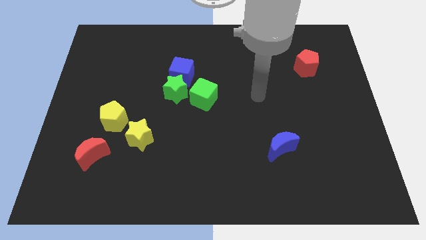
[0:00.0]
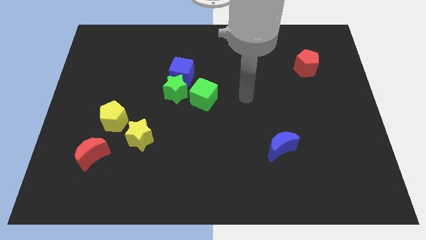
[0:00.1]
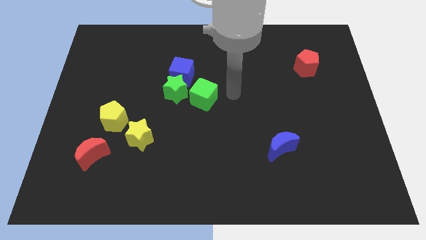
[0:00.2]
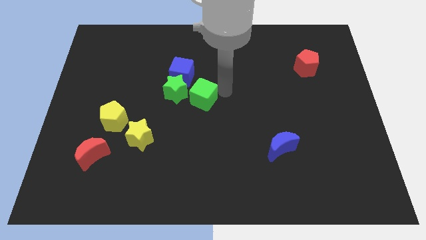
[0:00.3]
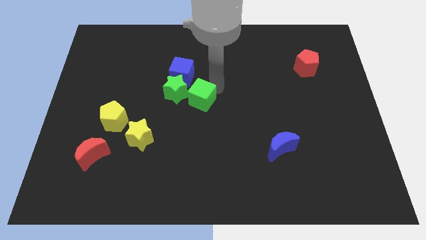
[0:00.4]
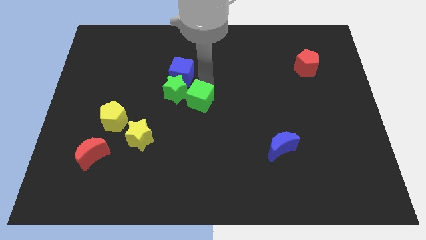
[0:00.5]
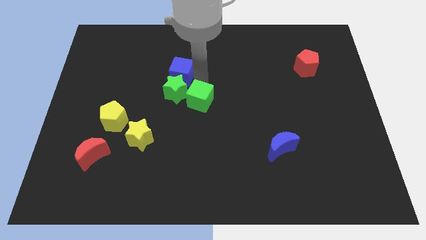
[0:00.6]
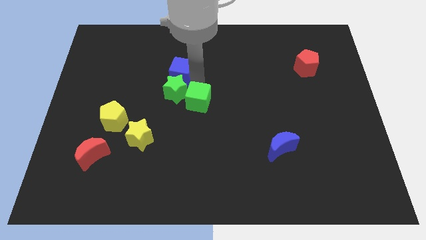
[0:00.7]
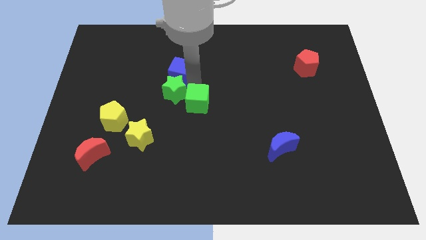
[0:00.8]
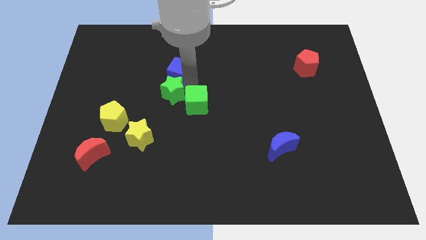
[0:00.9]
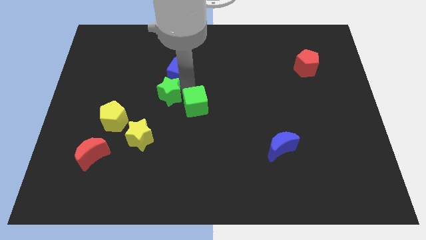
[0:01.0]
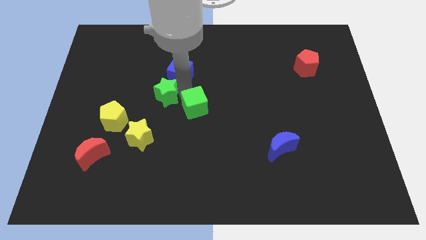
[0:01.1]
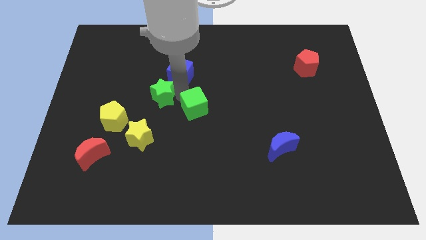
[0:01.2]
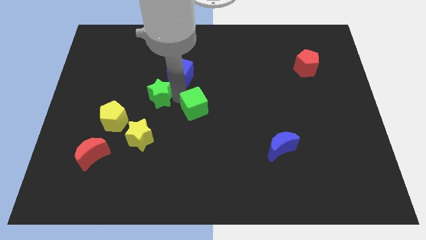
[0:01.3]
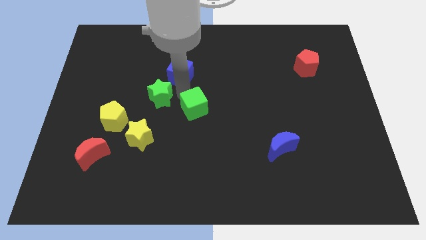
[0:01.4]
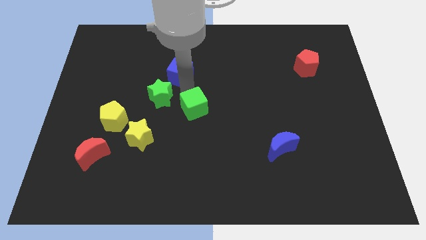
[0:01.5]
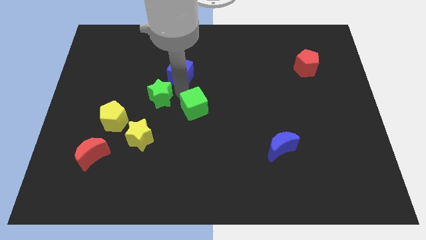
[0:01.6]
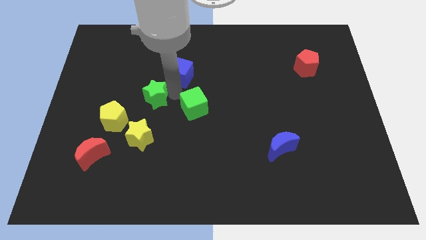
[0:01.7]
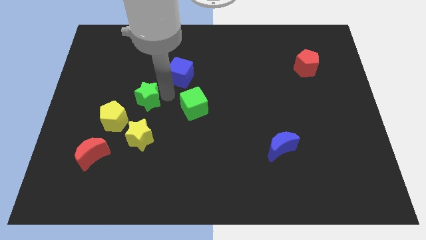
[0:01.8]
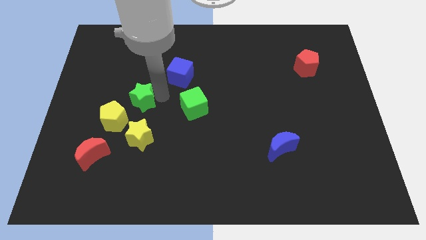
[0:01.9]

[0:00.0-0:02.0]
move the green star away from the blue cube and green cube

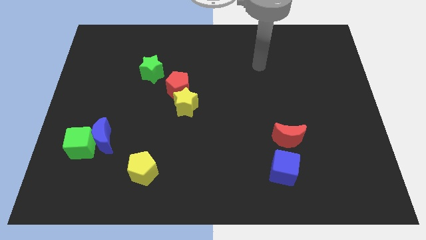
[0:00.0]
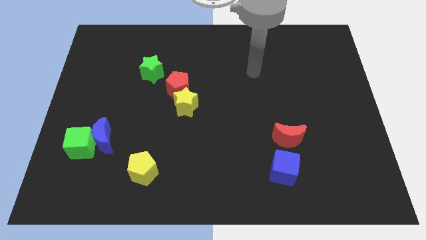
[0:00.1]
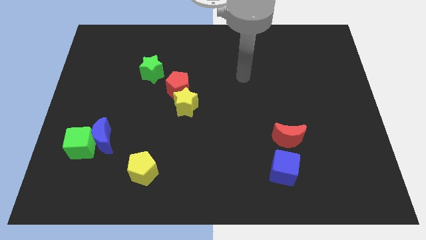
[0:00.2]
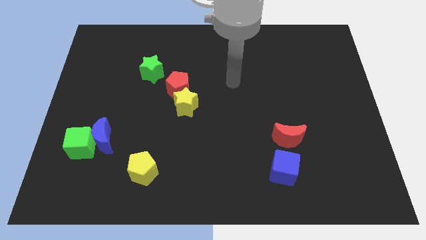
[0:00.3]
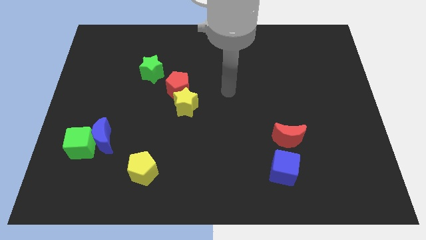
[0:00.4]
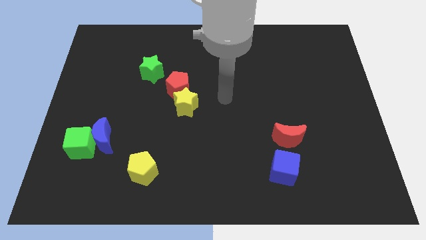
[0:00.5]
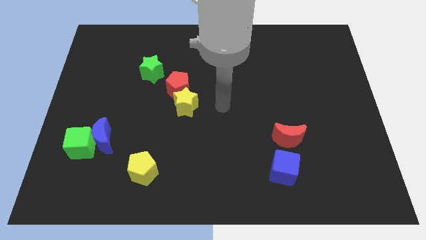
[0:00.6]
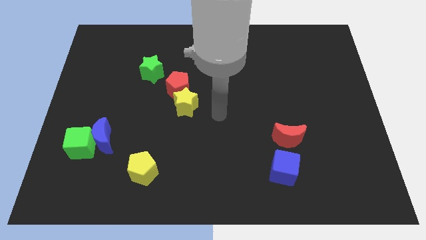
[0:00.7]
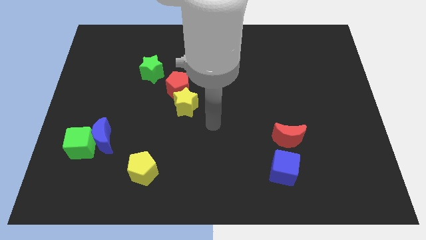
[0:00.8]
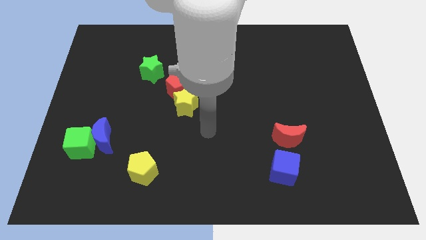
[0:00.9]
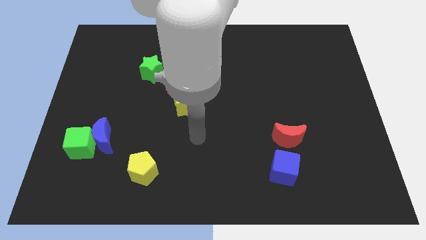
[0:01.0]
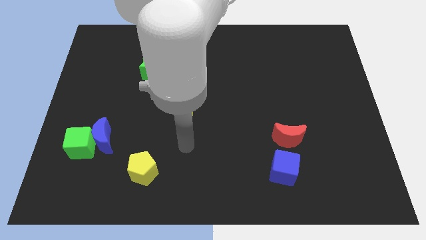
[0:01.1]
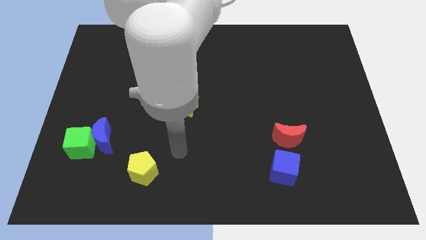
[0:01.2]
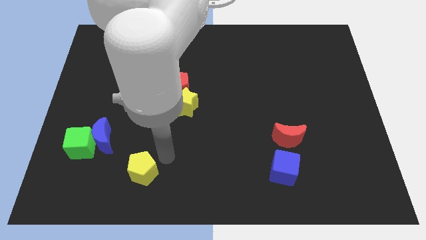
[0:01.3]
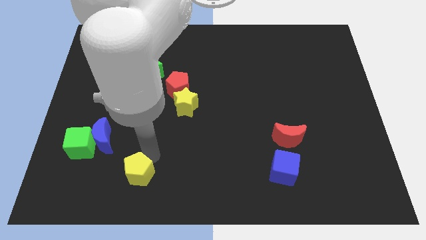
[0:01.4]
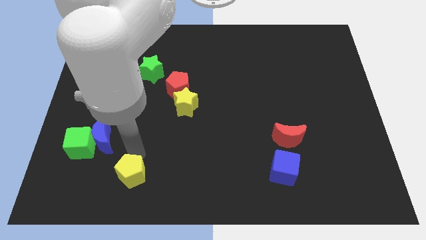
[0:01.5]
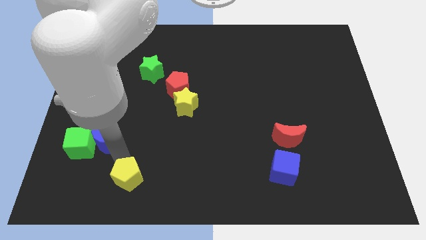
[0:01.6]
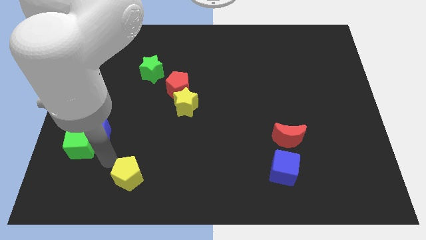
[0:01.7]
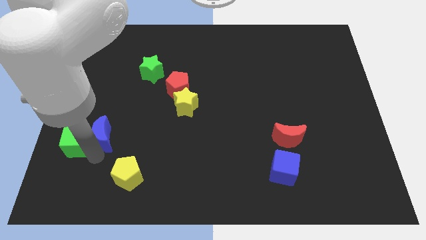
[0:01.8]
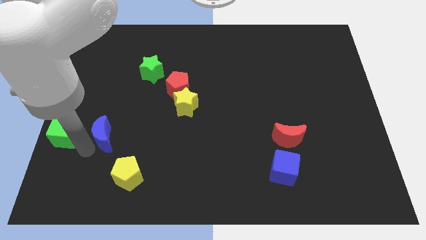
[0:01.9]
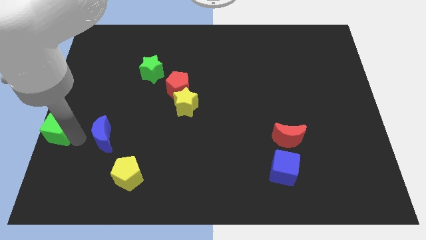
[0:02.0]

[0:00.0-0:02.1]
pull the blue moon apart from the green cube

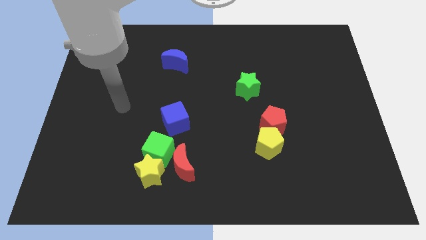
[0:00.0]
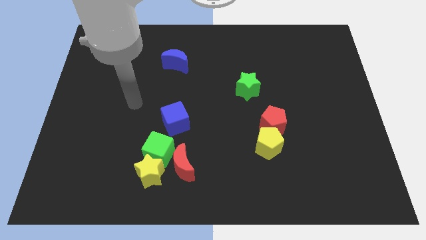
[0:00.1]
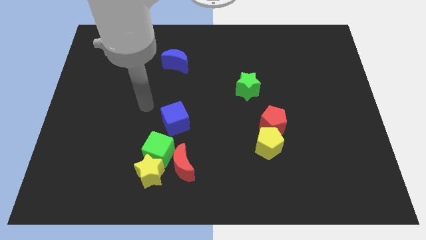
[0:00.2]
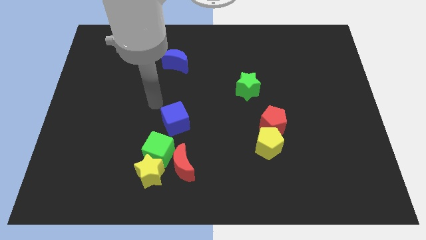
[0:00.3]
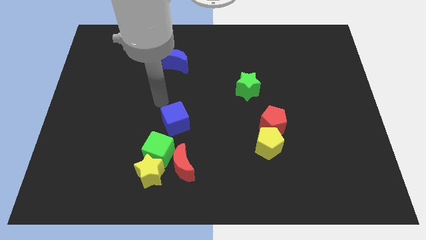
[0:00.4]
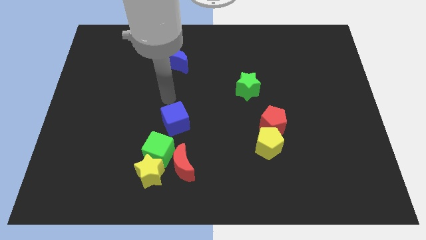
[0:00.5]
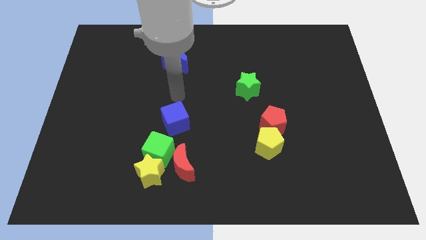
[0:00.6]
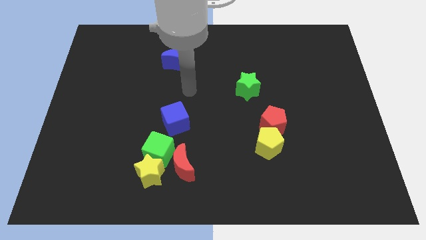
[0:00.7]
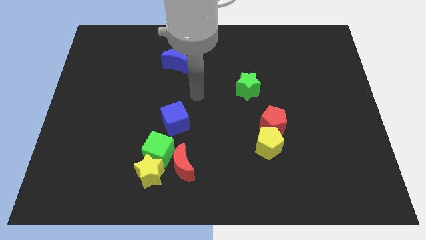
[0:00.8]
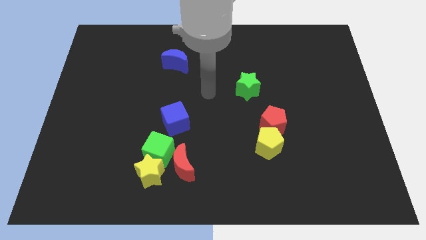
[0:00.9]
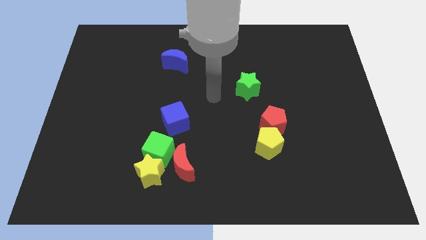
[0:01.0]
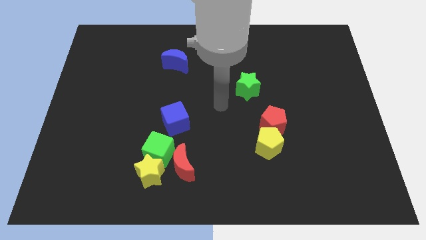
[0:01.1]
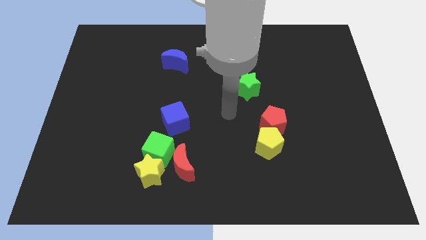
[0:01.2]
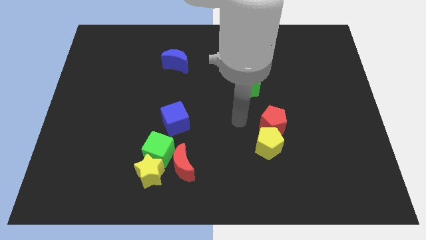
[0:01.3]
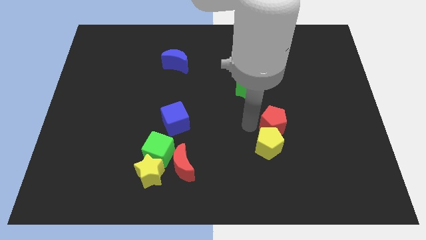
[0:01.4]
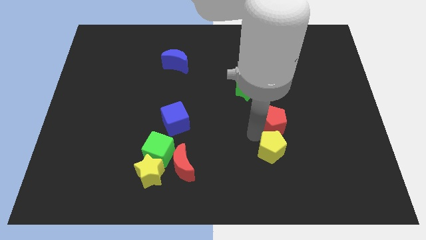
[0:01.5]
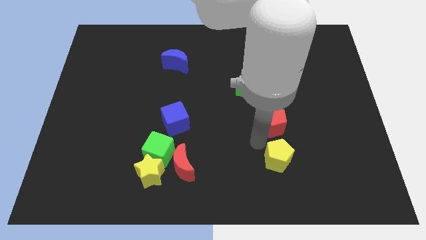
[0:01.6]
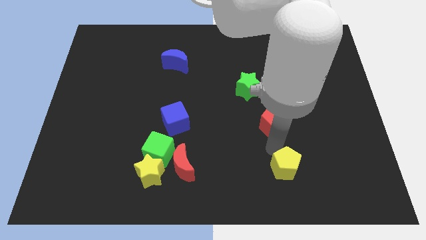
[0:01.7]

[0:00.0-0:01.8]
move the red pentagon away from the yellow pentagon

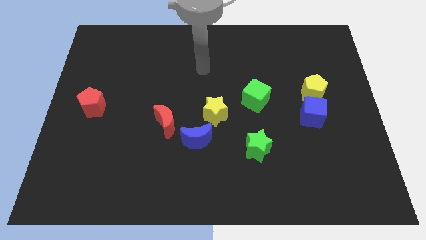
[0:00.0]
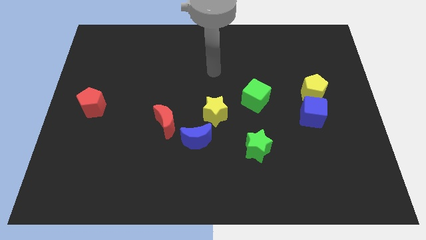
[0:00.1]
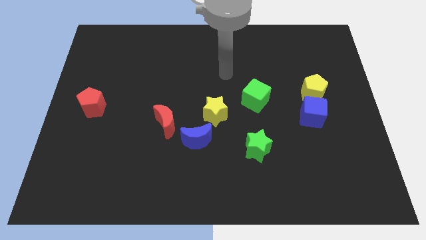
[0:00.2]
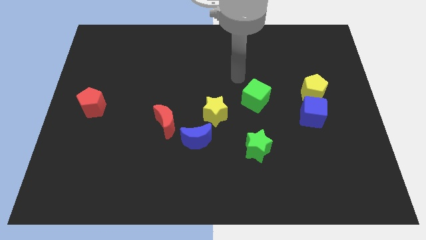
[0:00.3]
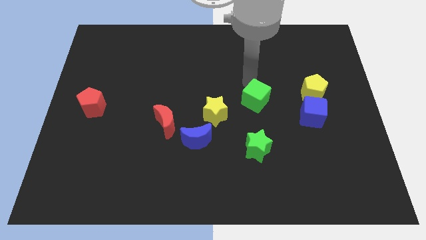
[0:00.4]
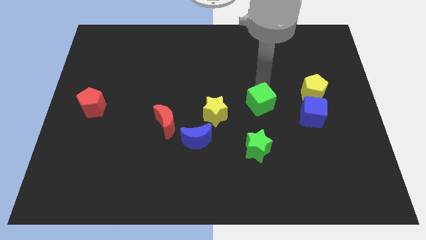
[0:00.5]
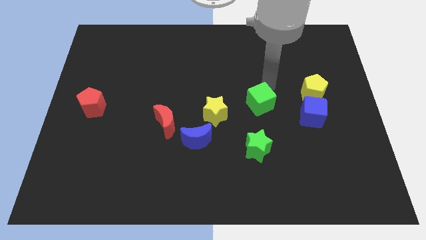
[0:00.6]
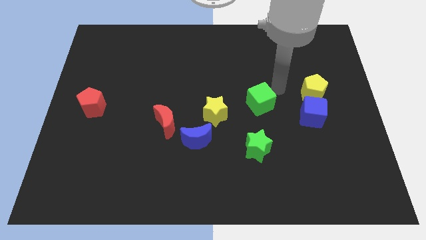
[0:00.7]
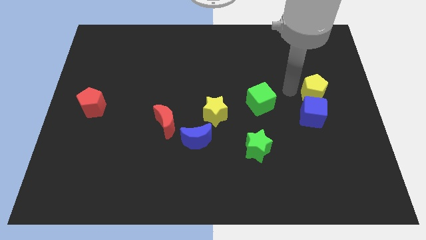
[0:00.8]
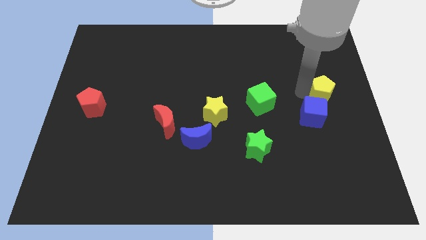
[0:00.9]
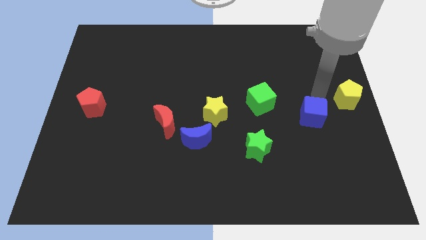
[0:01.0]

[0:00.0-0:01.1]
separate the blue cube from the yellow pentagon

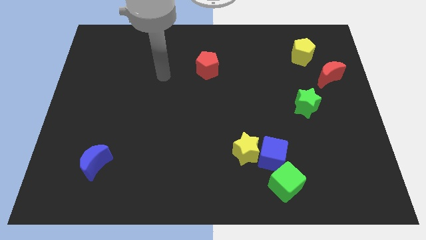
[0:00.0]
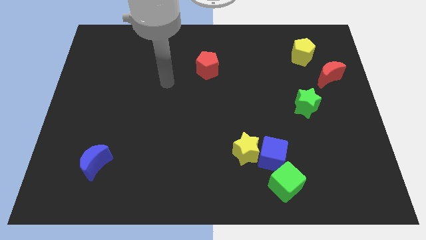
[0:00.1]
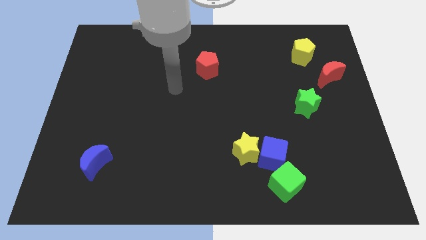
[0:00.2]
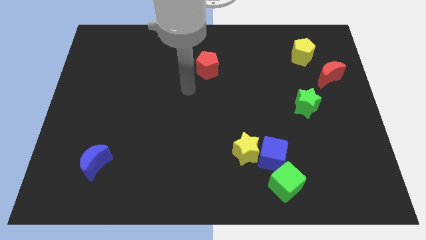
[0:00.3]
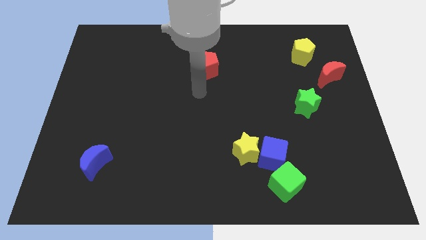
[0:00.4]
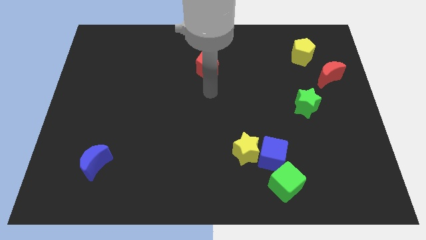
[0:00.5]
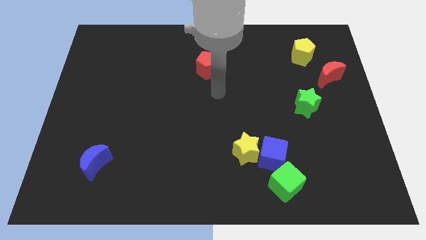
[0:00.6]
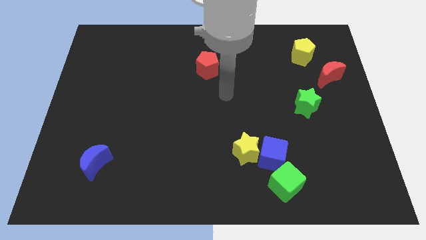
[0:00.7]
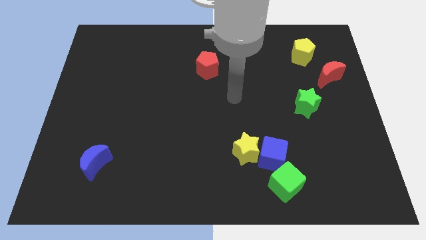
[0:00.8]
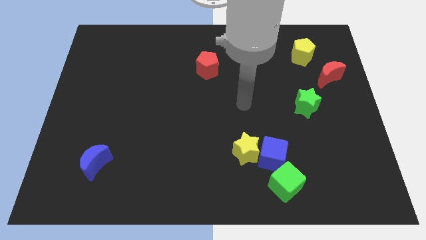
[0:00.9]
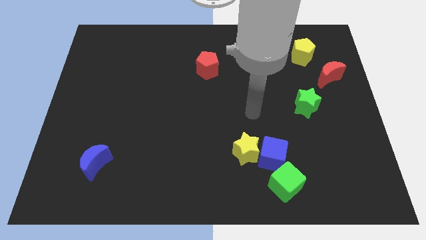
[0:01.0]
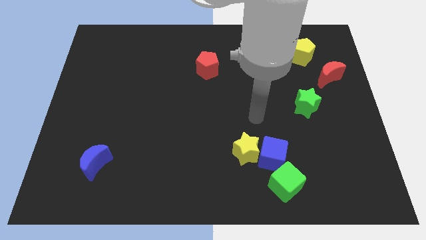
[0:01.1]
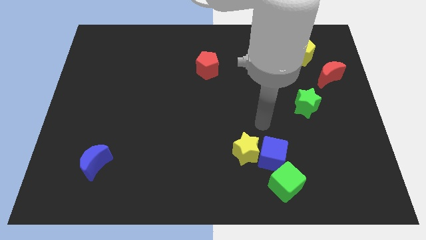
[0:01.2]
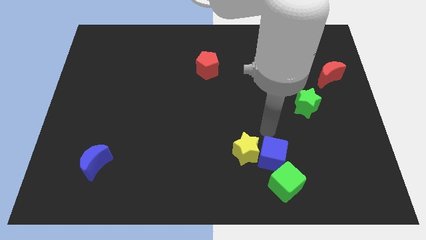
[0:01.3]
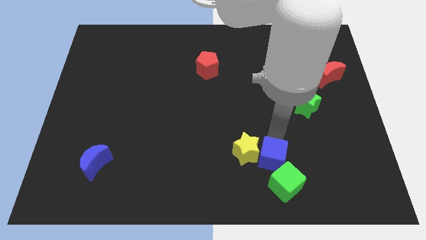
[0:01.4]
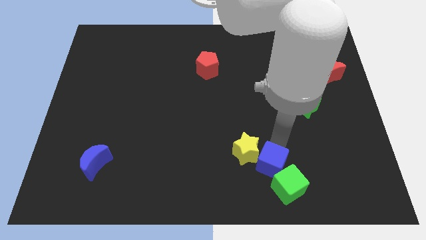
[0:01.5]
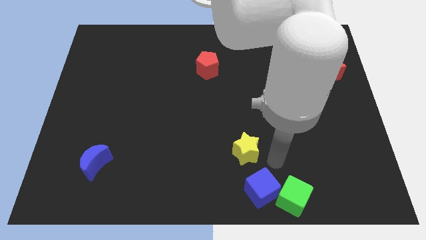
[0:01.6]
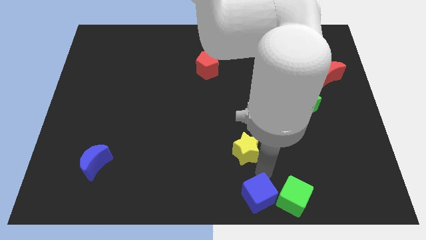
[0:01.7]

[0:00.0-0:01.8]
pull the yellow star apart from the blue cube

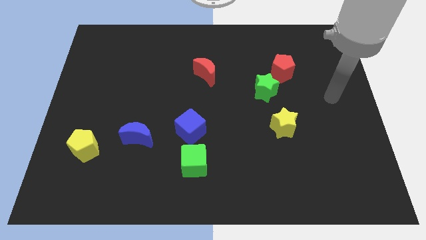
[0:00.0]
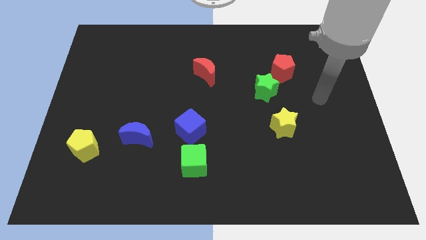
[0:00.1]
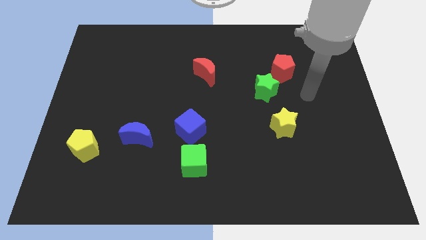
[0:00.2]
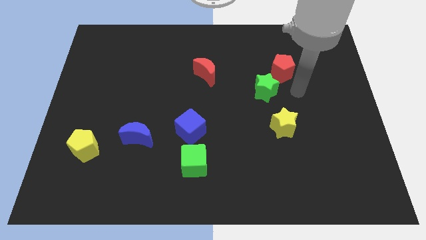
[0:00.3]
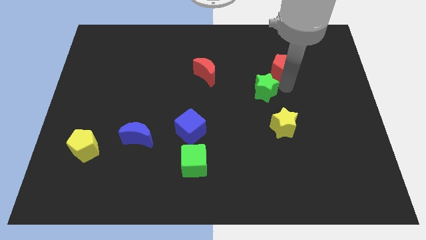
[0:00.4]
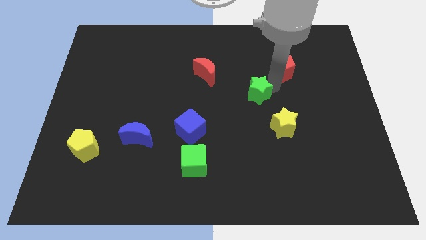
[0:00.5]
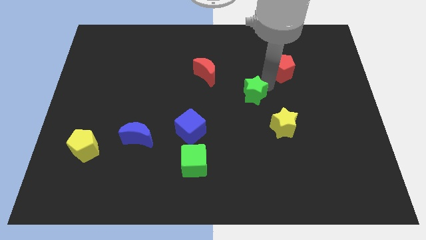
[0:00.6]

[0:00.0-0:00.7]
move the red pentagon away from the green star

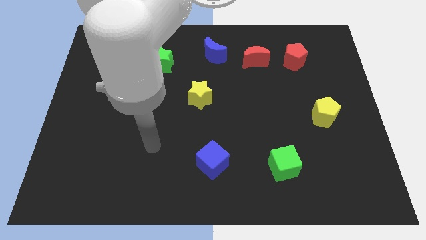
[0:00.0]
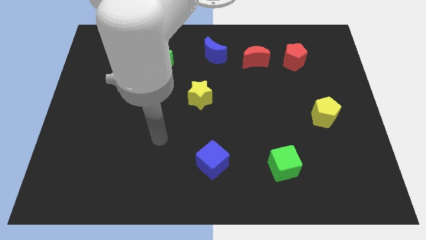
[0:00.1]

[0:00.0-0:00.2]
separate the red moon from the red pentagon
